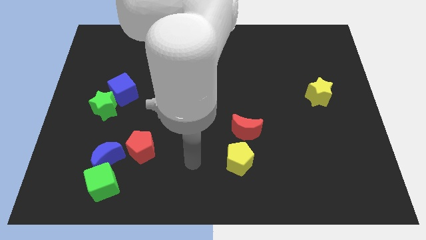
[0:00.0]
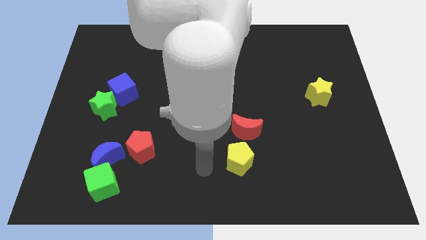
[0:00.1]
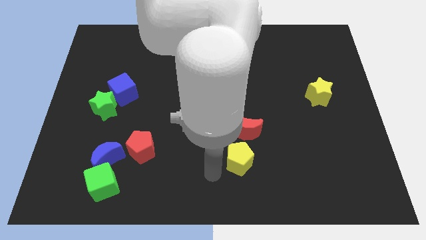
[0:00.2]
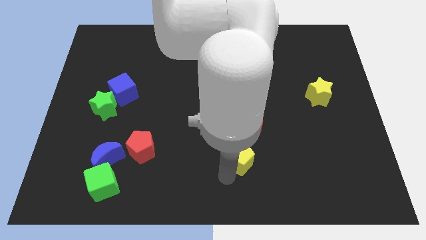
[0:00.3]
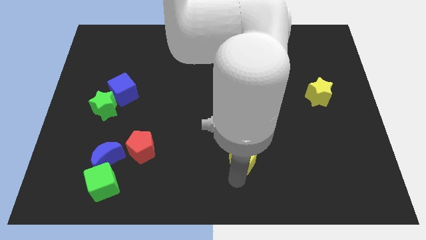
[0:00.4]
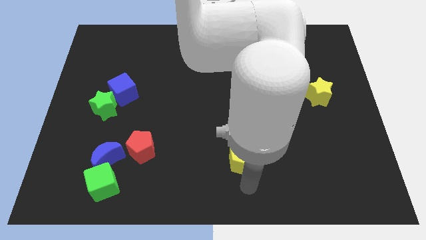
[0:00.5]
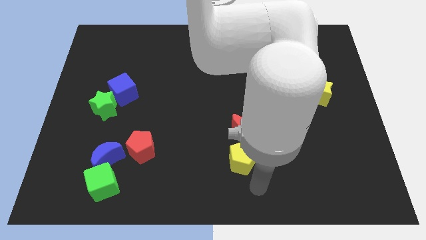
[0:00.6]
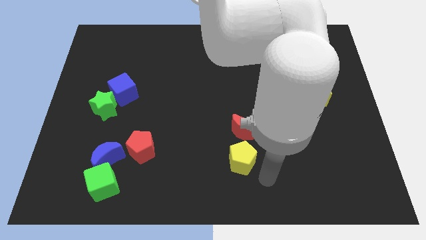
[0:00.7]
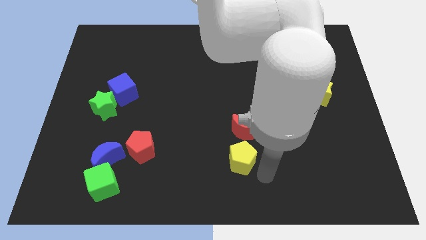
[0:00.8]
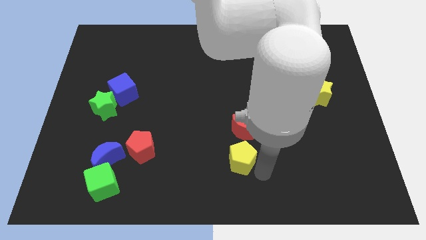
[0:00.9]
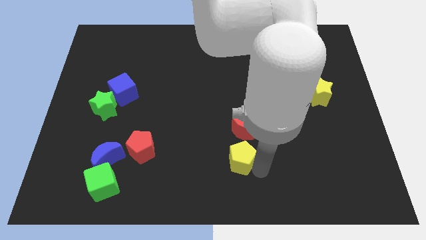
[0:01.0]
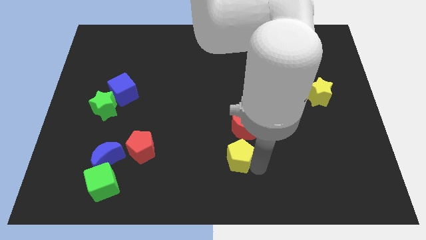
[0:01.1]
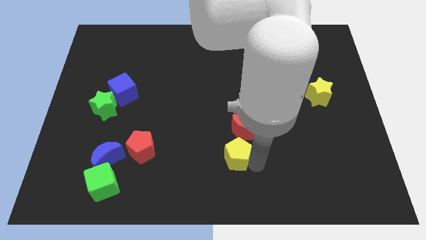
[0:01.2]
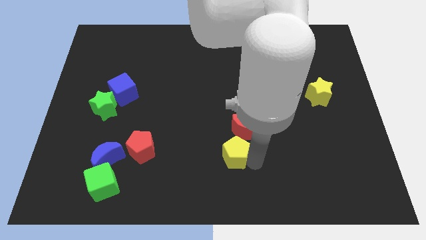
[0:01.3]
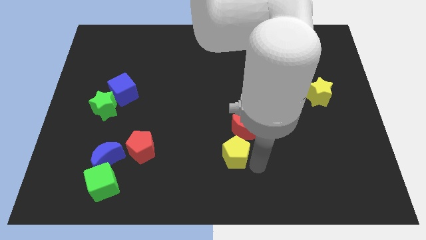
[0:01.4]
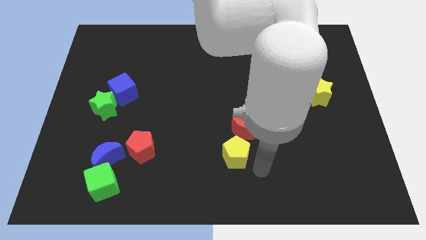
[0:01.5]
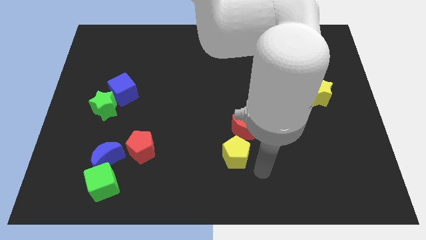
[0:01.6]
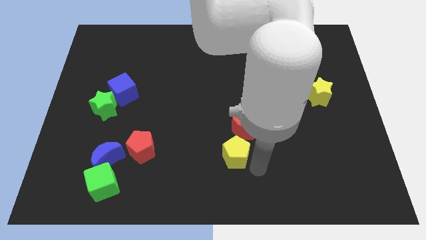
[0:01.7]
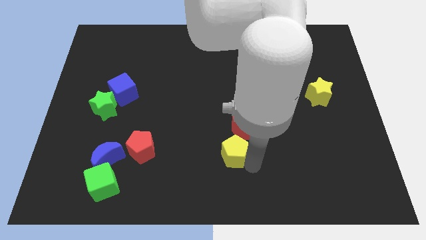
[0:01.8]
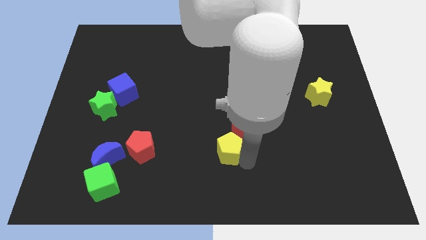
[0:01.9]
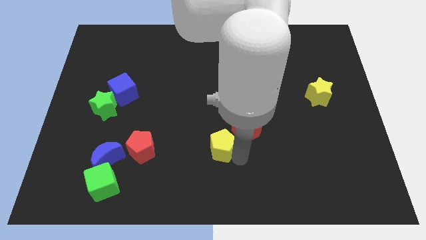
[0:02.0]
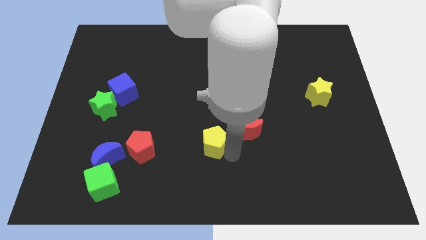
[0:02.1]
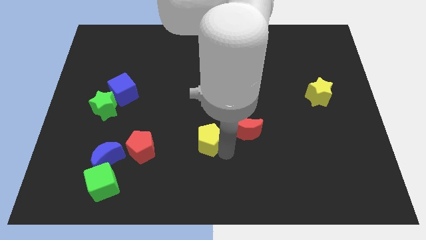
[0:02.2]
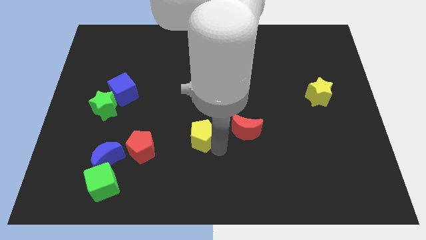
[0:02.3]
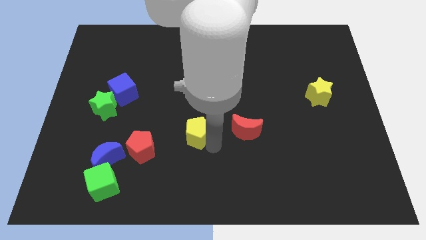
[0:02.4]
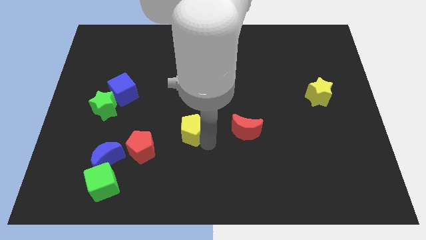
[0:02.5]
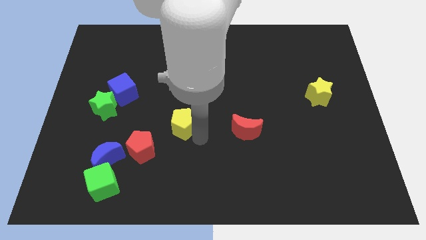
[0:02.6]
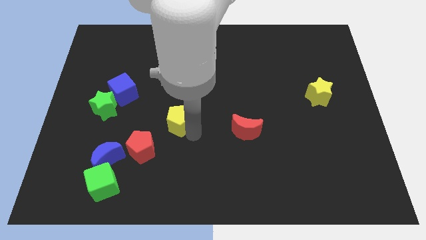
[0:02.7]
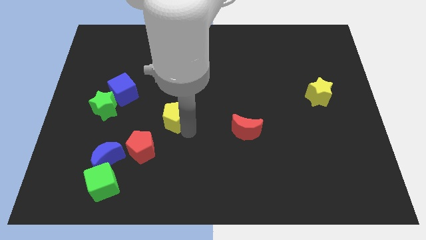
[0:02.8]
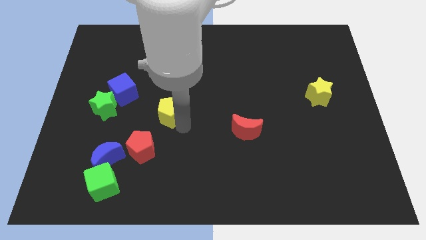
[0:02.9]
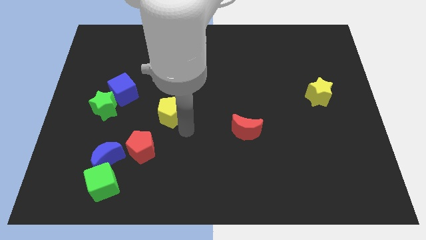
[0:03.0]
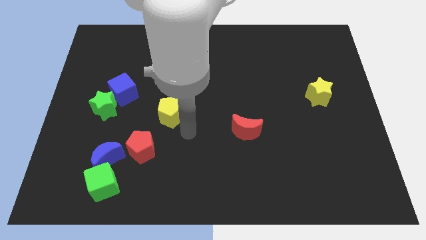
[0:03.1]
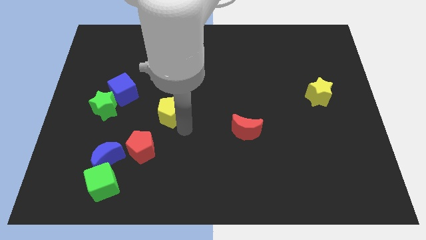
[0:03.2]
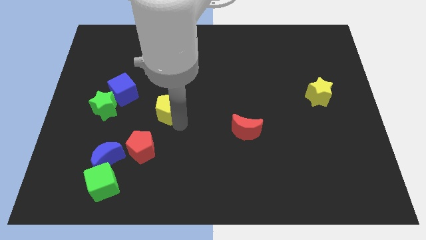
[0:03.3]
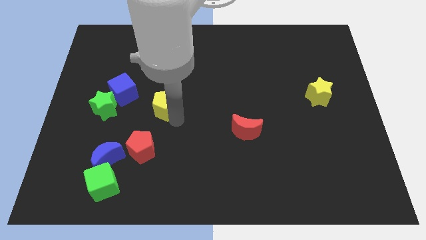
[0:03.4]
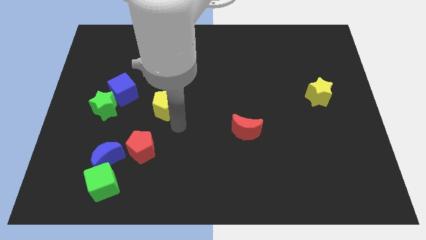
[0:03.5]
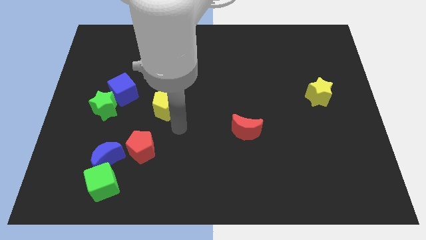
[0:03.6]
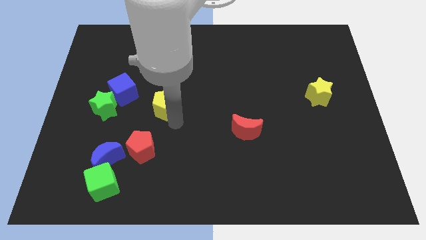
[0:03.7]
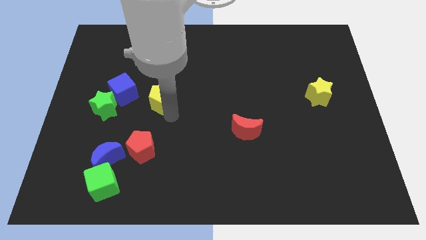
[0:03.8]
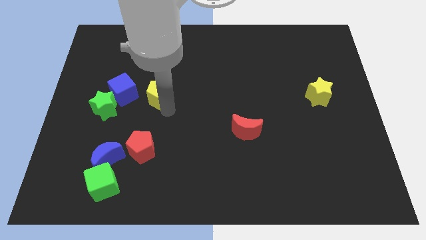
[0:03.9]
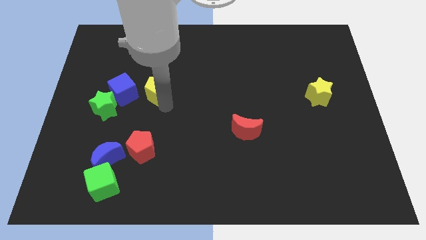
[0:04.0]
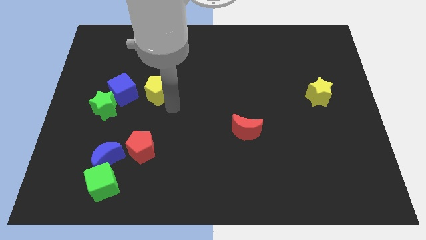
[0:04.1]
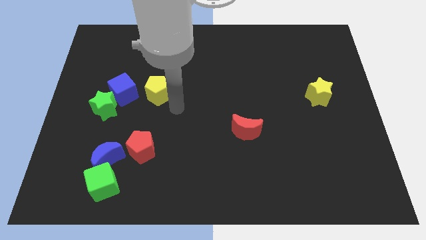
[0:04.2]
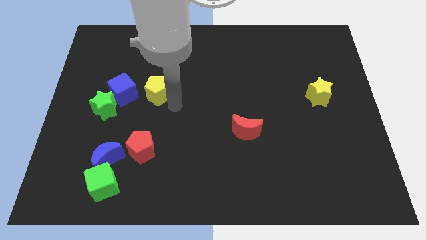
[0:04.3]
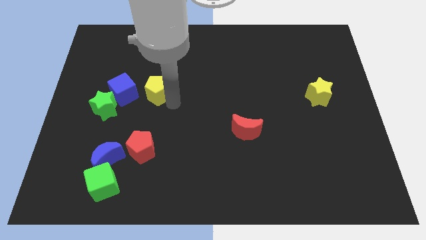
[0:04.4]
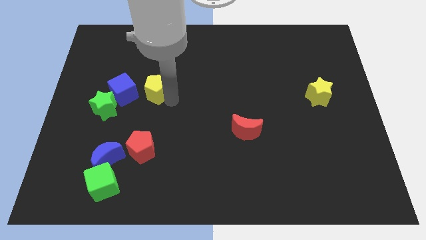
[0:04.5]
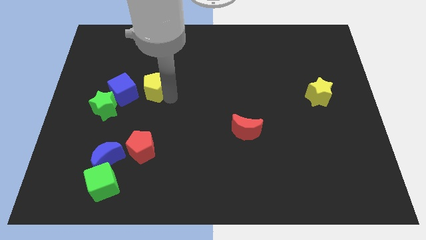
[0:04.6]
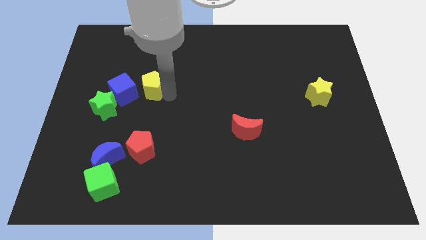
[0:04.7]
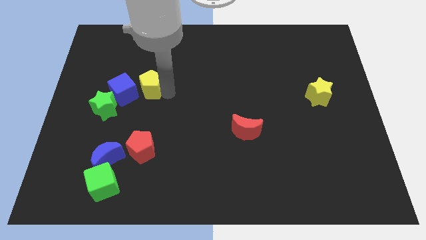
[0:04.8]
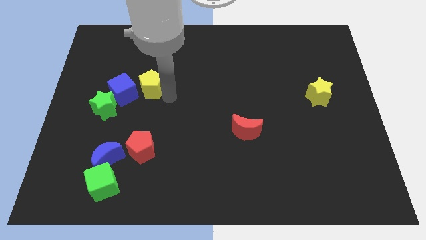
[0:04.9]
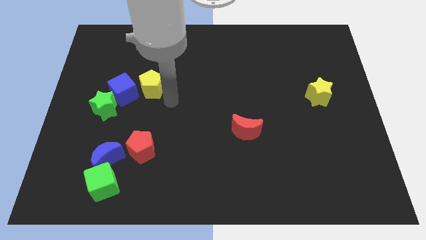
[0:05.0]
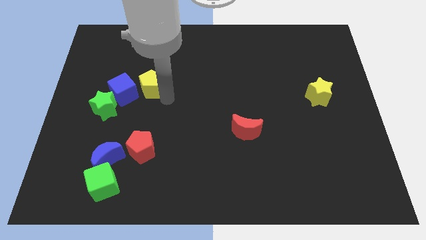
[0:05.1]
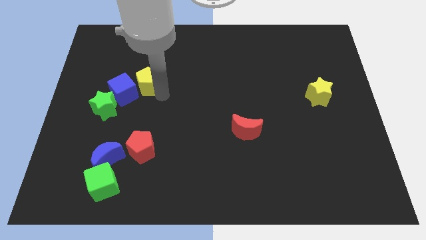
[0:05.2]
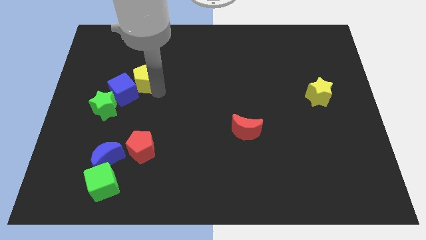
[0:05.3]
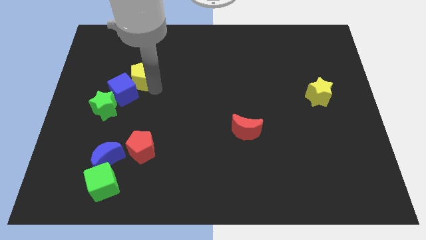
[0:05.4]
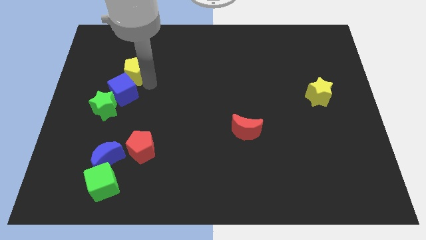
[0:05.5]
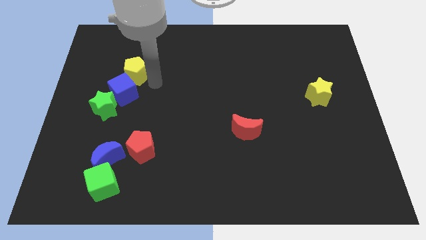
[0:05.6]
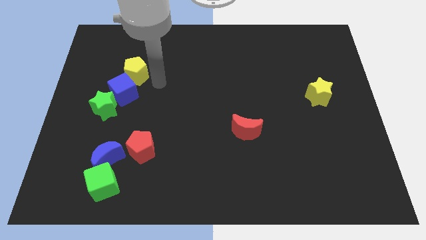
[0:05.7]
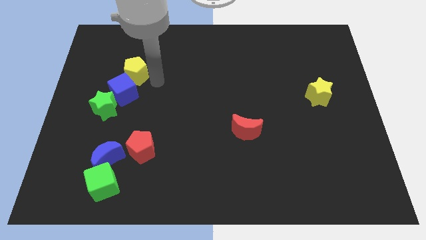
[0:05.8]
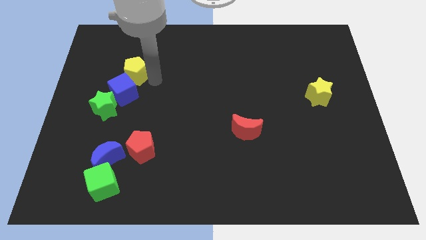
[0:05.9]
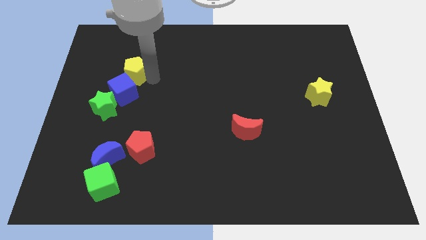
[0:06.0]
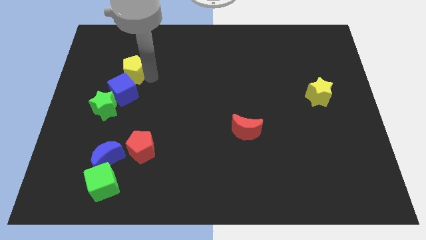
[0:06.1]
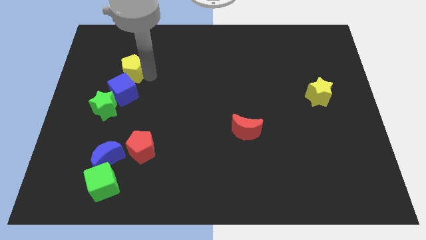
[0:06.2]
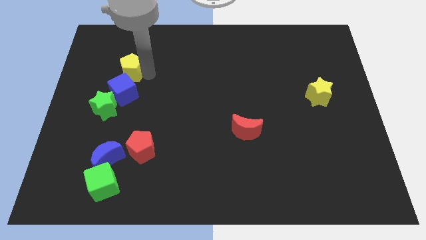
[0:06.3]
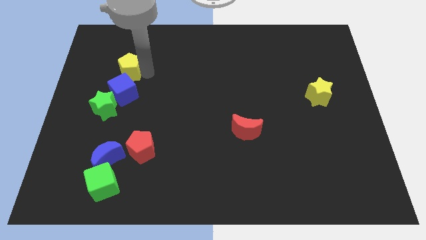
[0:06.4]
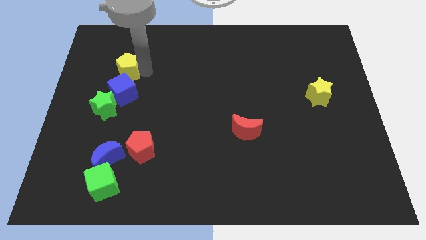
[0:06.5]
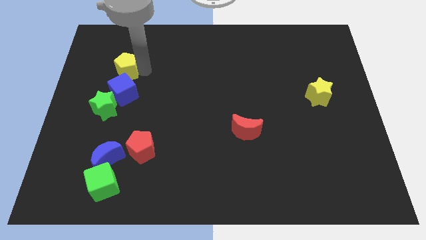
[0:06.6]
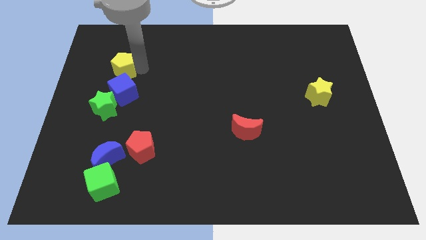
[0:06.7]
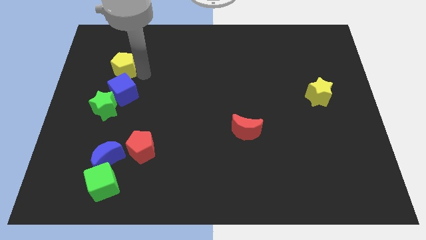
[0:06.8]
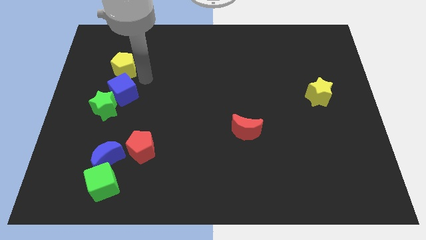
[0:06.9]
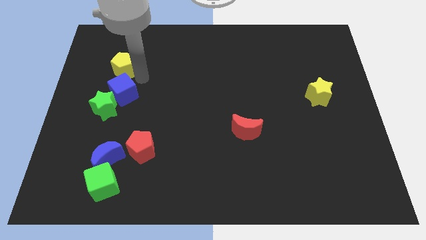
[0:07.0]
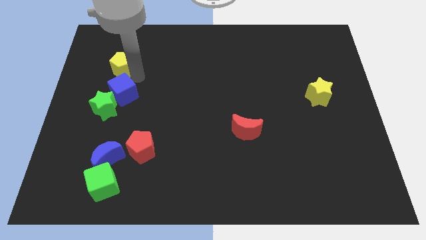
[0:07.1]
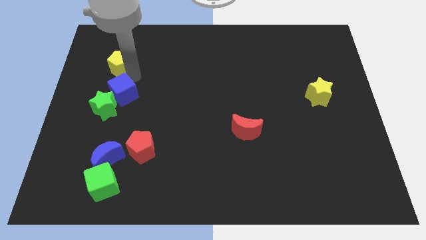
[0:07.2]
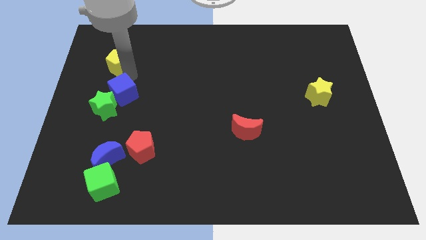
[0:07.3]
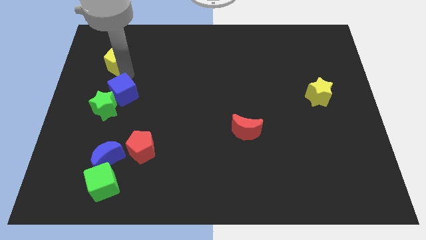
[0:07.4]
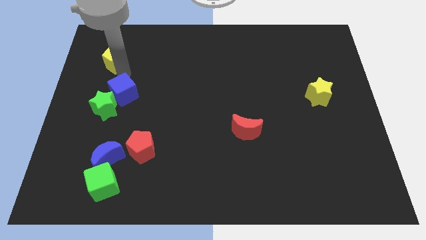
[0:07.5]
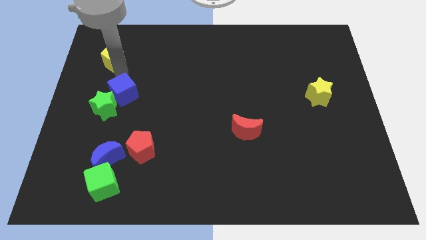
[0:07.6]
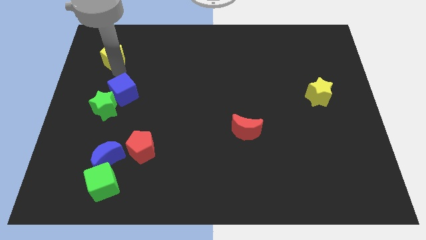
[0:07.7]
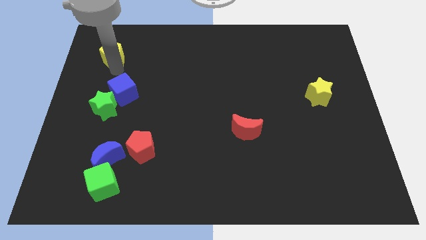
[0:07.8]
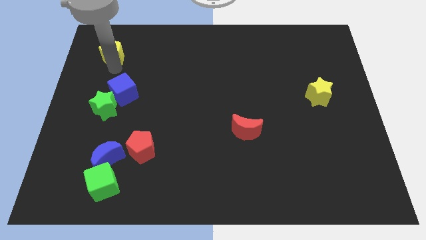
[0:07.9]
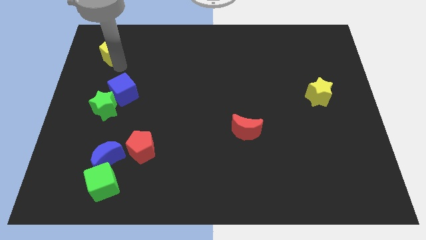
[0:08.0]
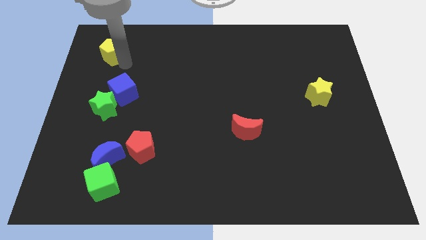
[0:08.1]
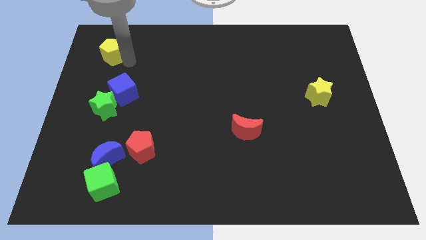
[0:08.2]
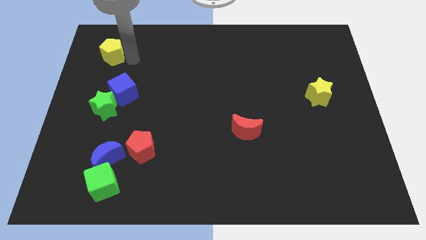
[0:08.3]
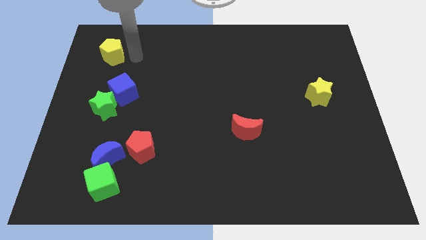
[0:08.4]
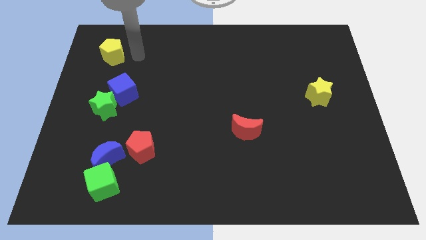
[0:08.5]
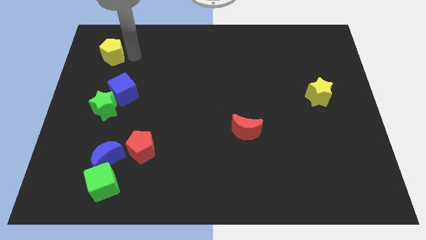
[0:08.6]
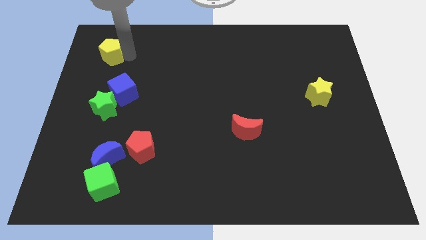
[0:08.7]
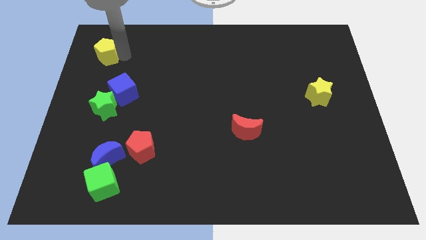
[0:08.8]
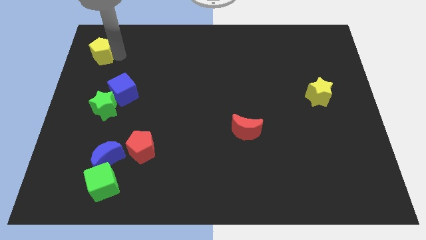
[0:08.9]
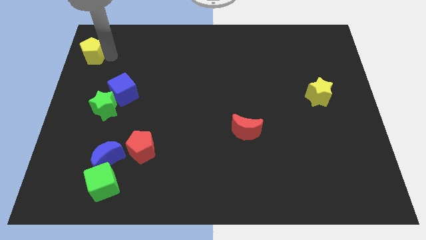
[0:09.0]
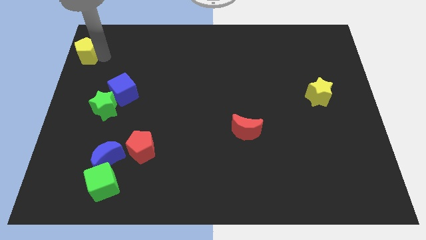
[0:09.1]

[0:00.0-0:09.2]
push the yellow pentagon to the top left corner
